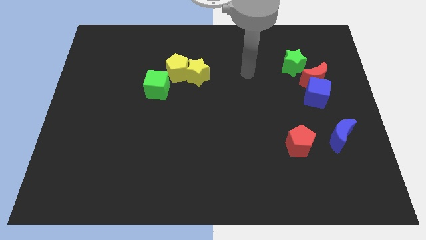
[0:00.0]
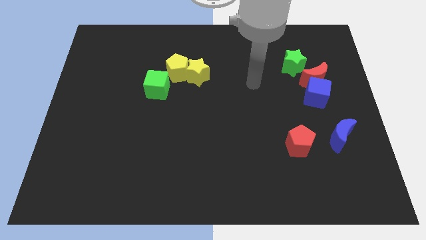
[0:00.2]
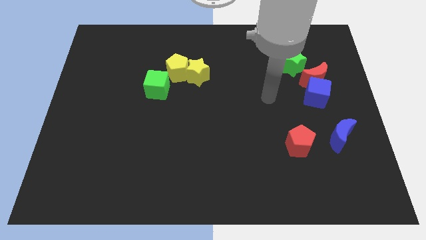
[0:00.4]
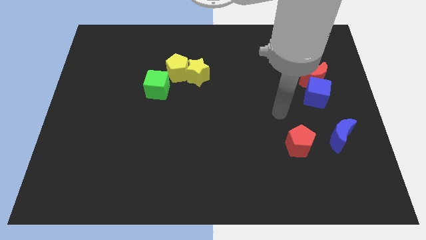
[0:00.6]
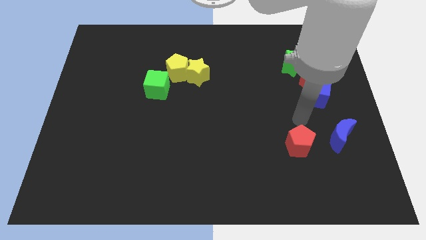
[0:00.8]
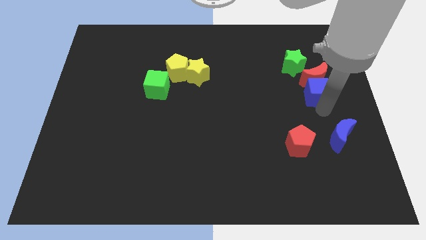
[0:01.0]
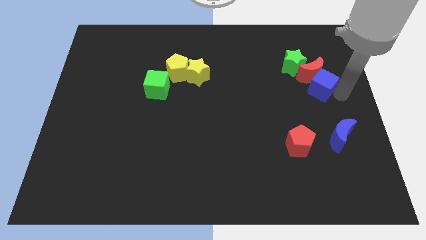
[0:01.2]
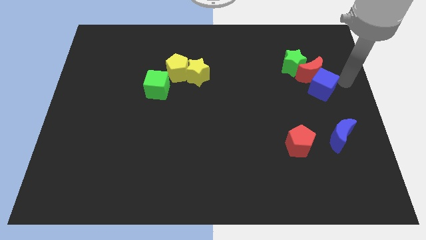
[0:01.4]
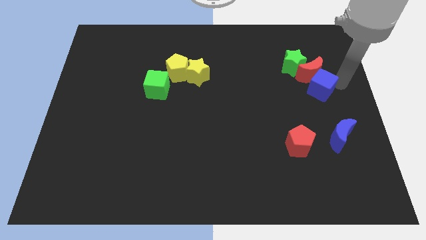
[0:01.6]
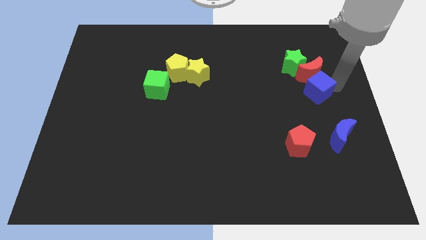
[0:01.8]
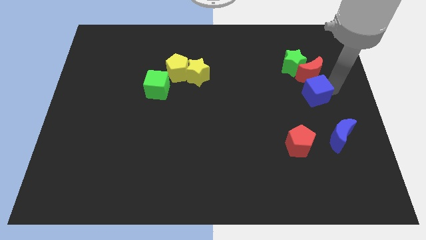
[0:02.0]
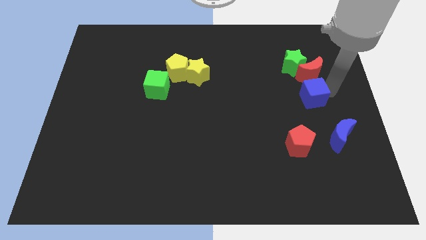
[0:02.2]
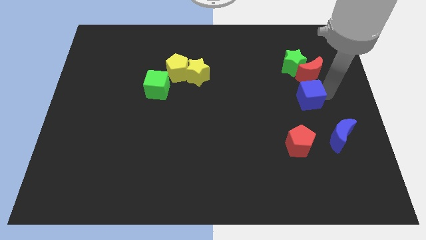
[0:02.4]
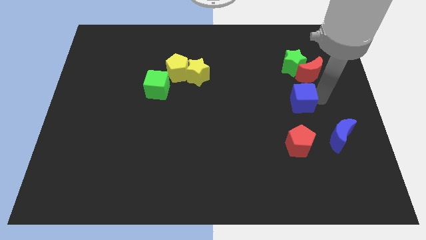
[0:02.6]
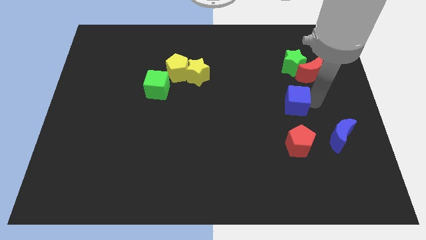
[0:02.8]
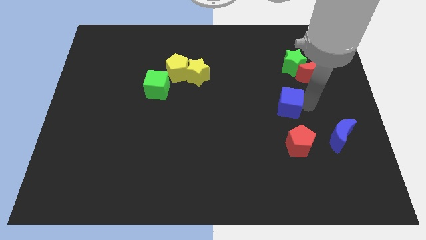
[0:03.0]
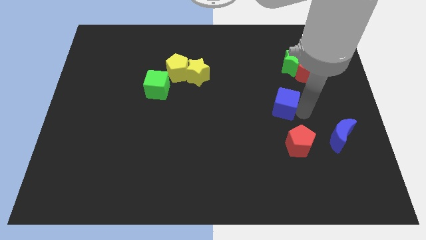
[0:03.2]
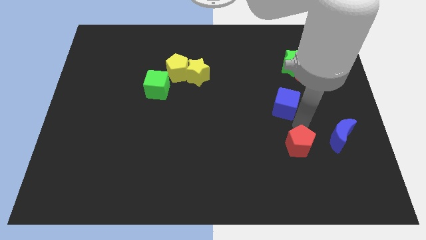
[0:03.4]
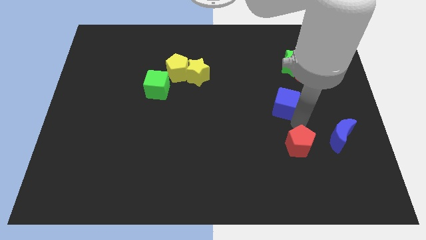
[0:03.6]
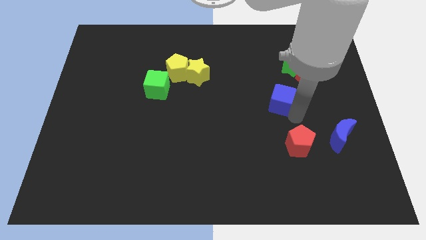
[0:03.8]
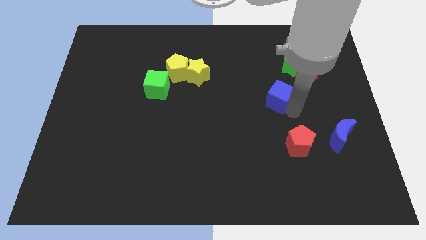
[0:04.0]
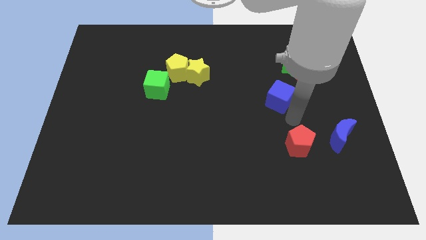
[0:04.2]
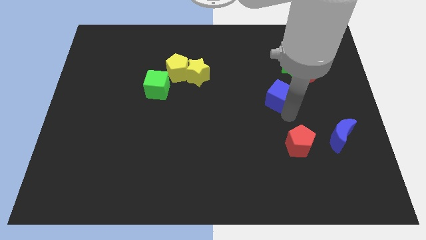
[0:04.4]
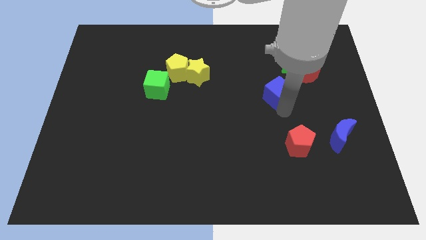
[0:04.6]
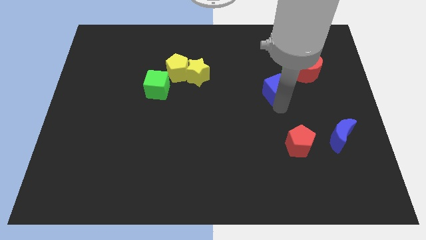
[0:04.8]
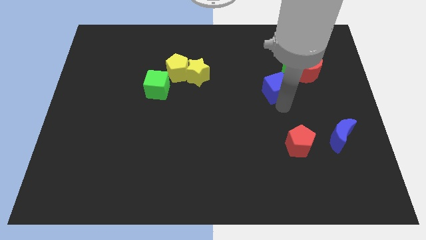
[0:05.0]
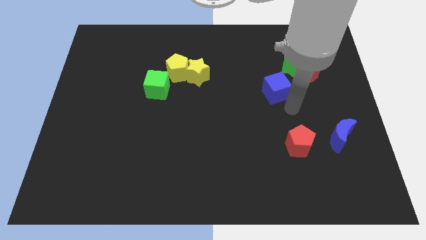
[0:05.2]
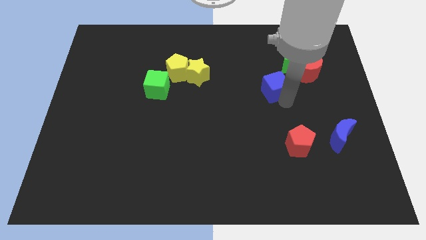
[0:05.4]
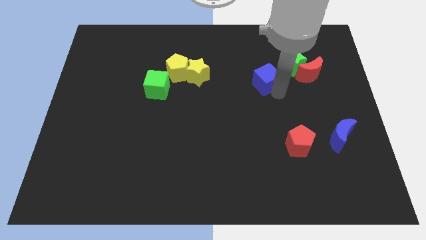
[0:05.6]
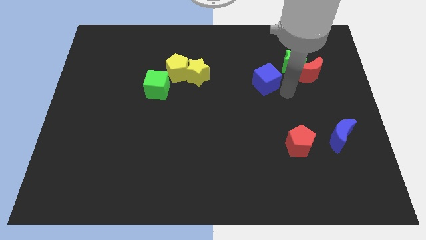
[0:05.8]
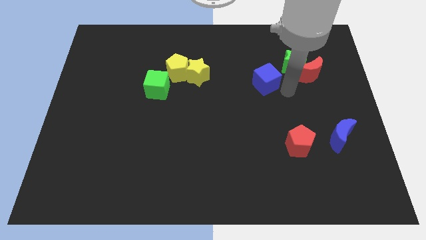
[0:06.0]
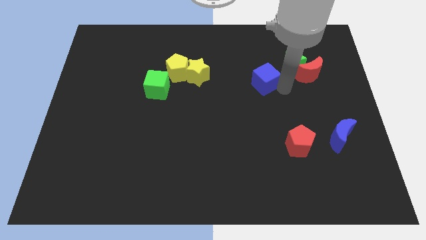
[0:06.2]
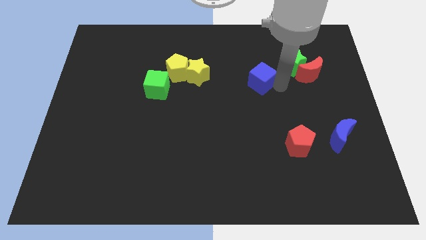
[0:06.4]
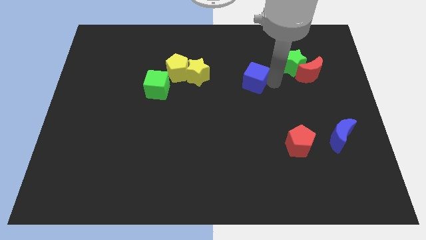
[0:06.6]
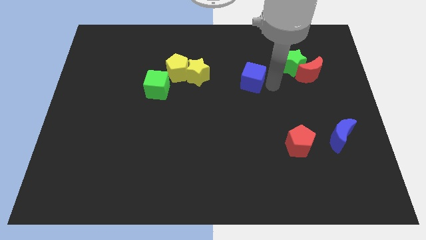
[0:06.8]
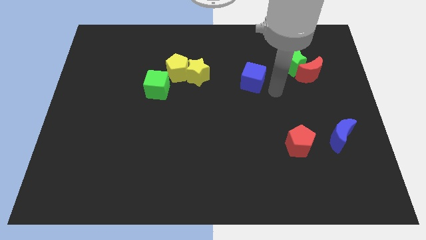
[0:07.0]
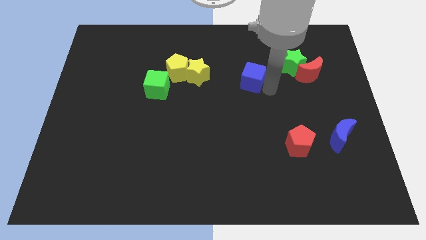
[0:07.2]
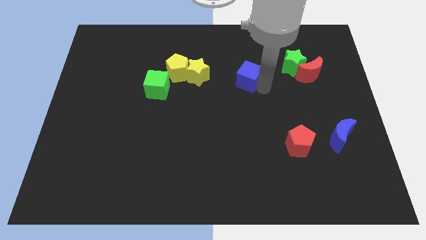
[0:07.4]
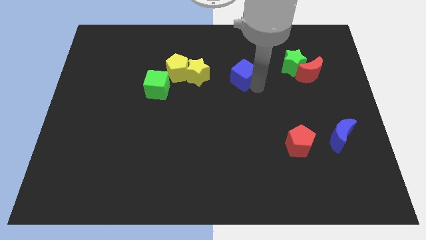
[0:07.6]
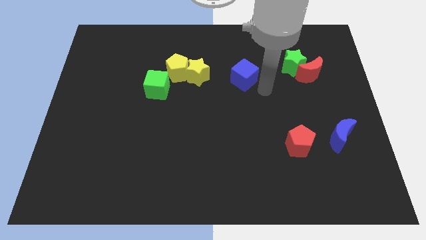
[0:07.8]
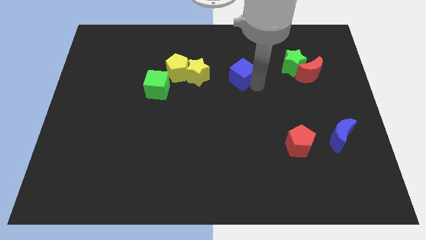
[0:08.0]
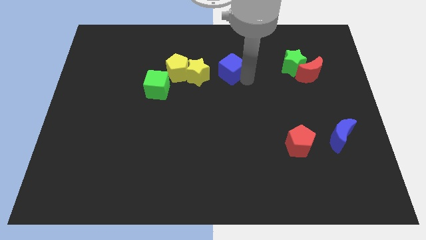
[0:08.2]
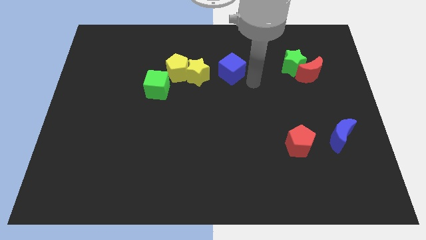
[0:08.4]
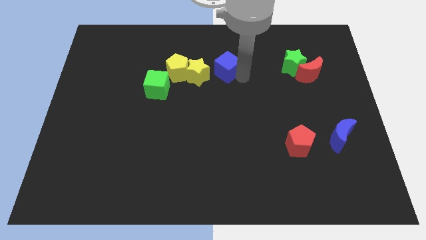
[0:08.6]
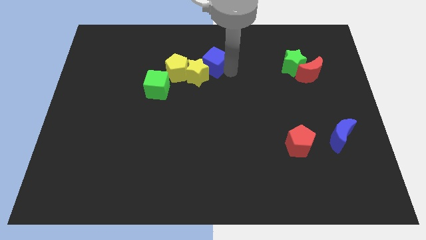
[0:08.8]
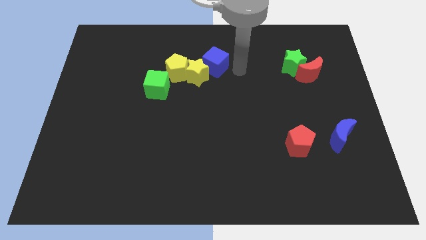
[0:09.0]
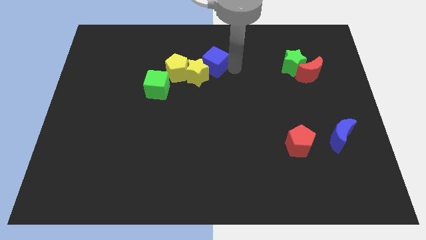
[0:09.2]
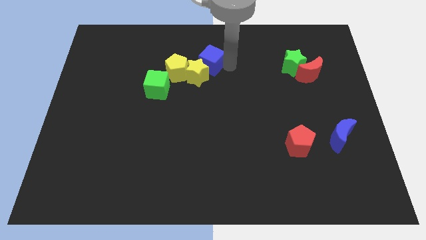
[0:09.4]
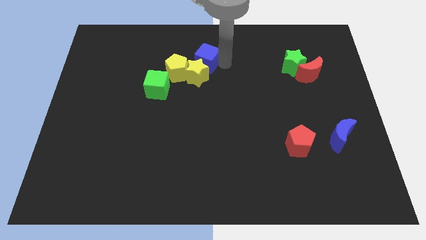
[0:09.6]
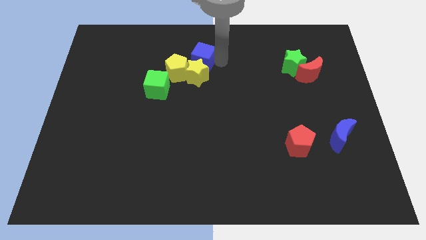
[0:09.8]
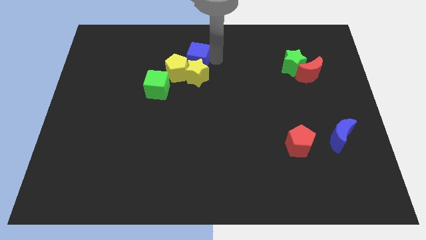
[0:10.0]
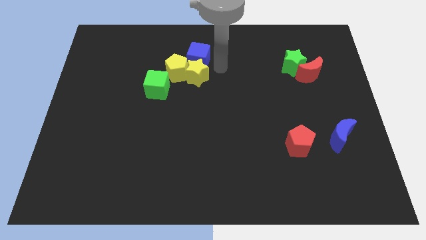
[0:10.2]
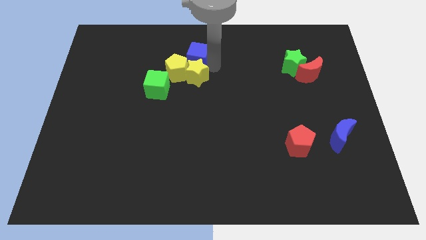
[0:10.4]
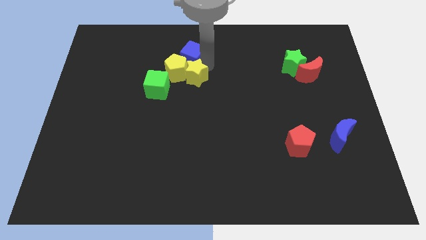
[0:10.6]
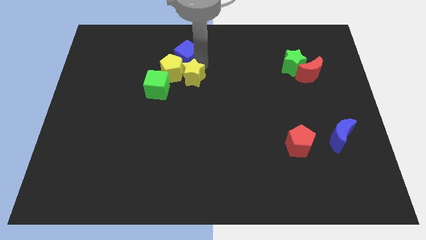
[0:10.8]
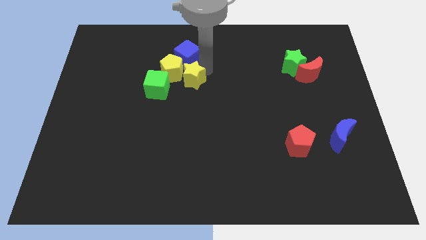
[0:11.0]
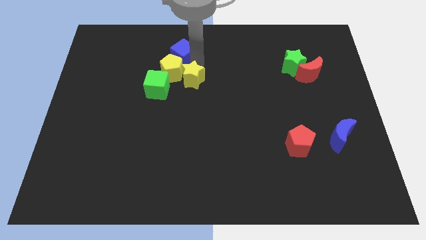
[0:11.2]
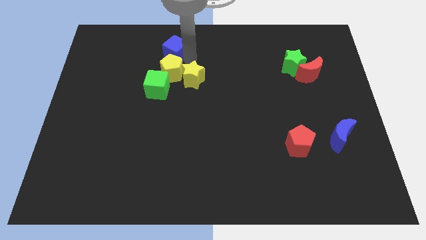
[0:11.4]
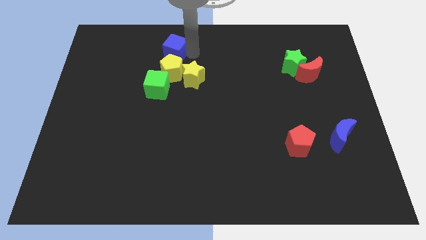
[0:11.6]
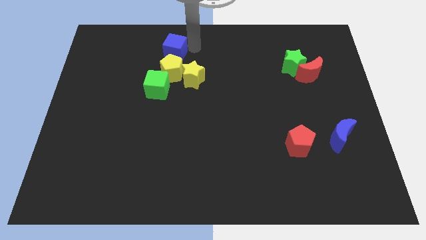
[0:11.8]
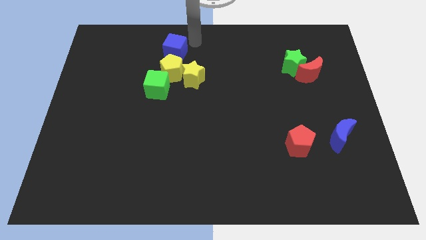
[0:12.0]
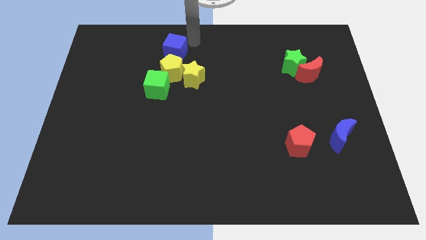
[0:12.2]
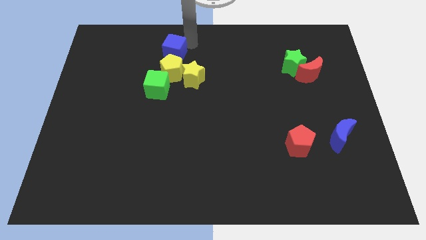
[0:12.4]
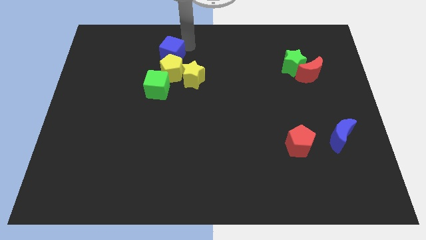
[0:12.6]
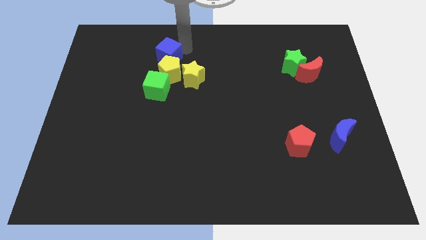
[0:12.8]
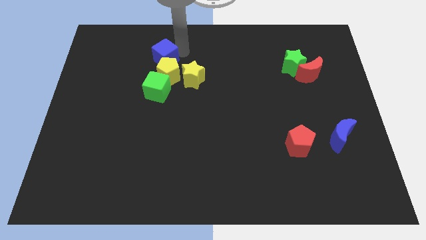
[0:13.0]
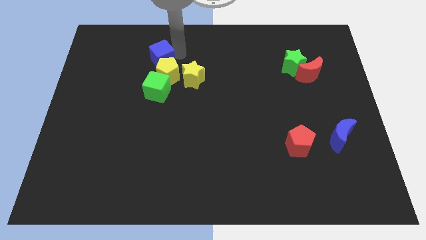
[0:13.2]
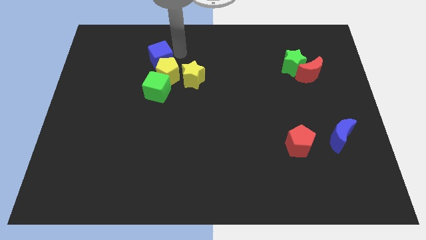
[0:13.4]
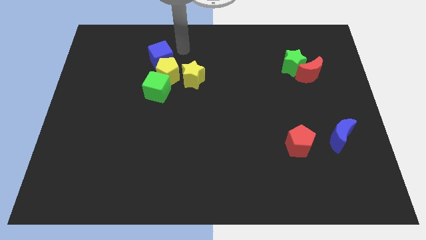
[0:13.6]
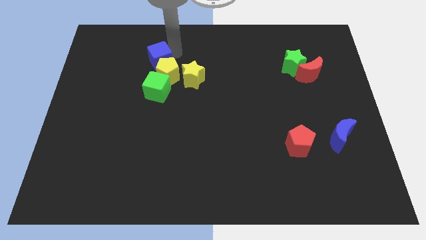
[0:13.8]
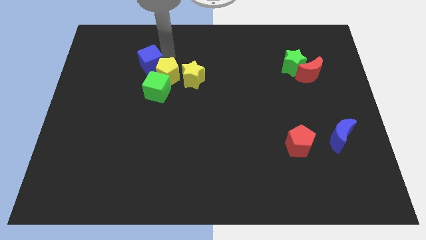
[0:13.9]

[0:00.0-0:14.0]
push the blue cube to the left side of the yellow pentagon
